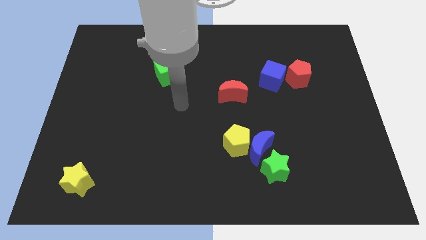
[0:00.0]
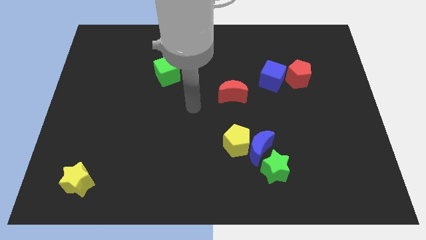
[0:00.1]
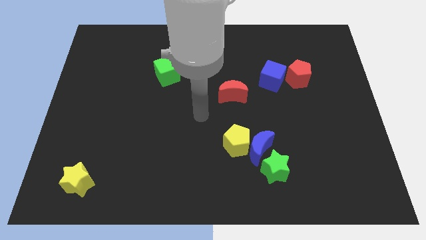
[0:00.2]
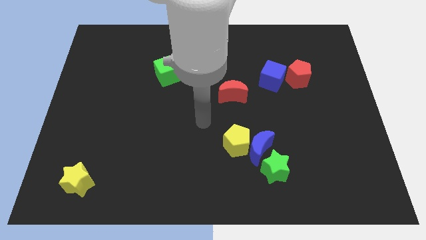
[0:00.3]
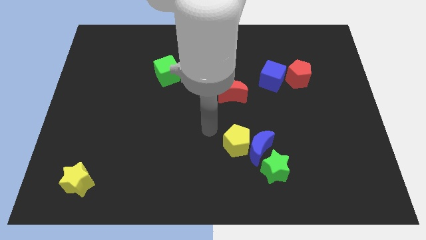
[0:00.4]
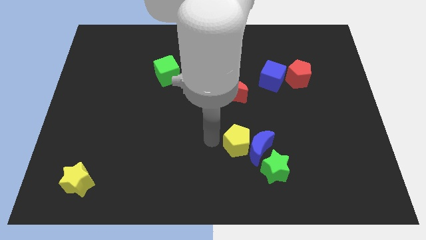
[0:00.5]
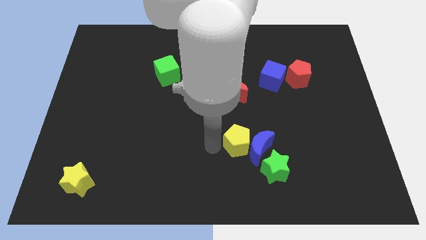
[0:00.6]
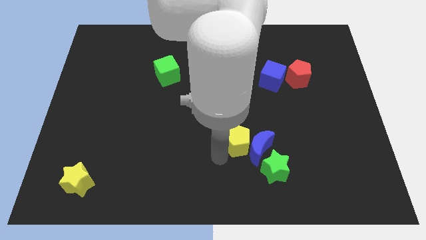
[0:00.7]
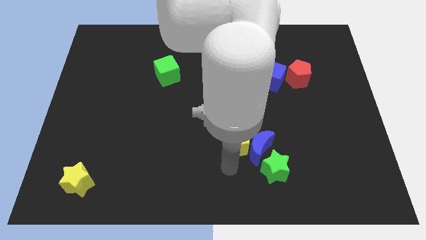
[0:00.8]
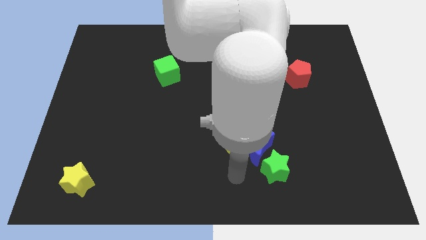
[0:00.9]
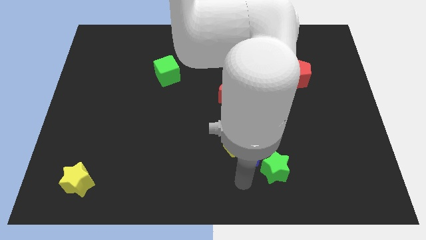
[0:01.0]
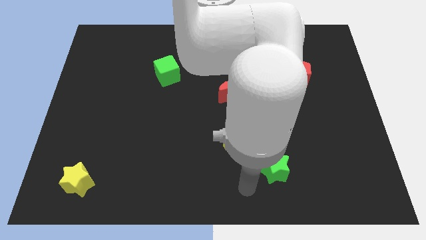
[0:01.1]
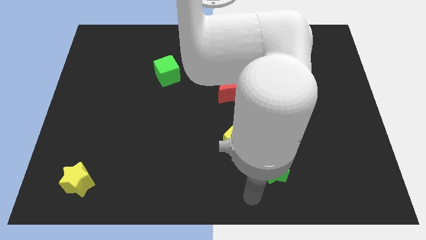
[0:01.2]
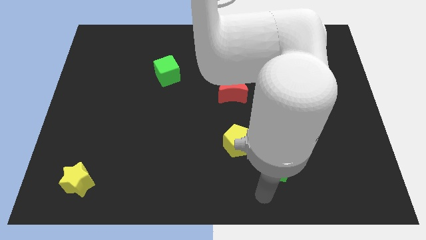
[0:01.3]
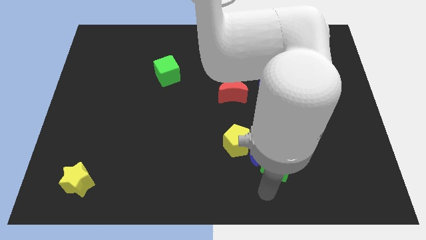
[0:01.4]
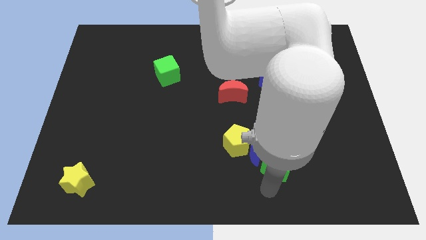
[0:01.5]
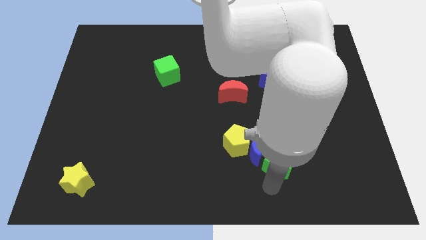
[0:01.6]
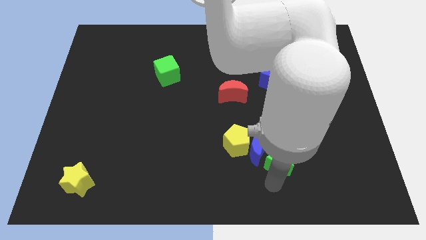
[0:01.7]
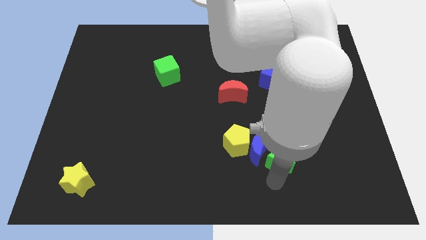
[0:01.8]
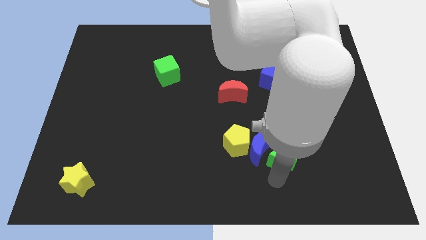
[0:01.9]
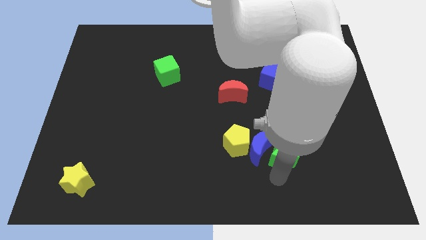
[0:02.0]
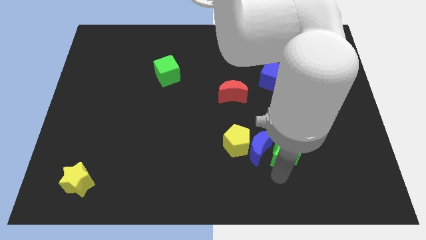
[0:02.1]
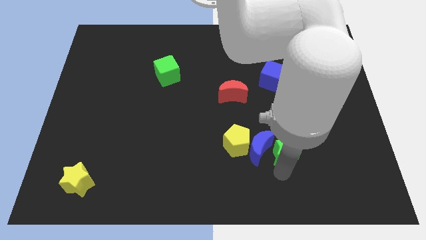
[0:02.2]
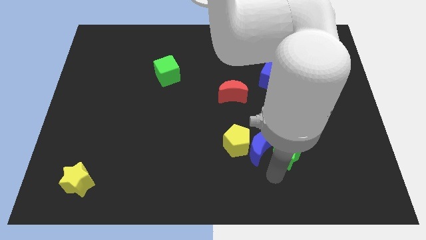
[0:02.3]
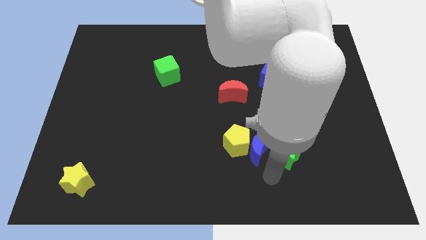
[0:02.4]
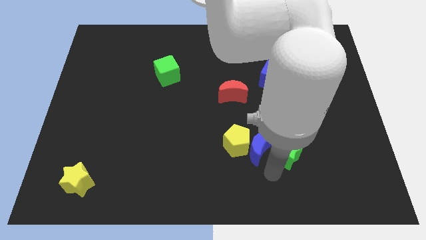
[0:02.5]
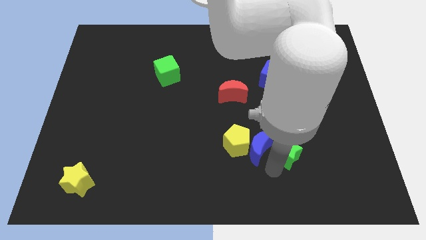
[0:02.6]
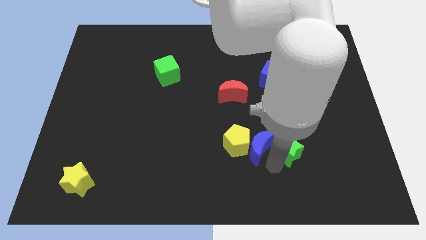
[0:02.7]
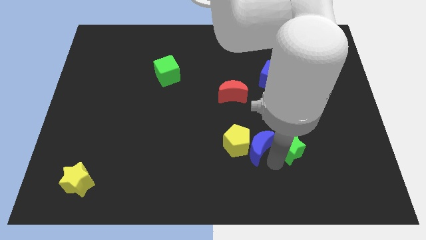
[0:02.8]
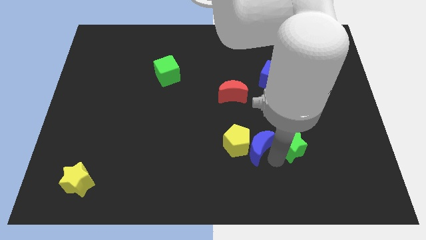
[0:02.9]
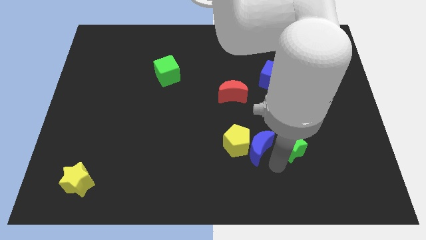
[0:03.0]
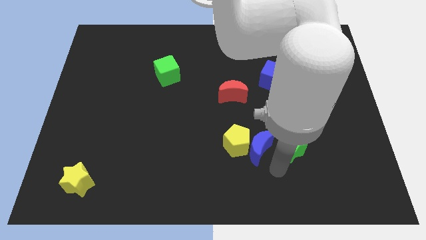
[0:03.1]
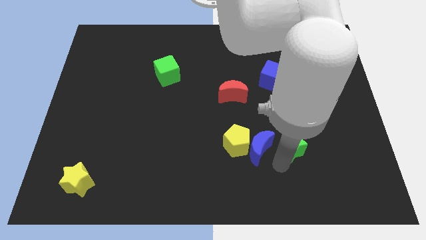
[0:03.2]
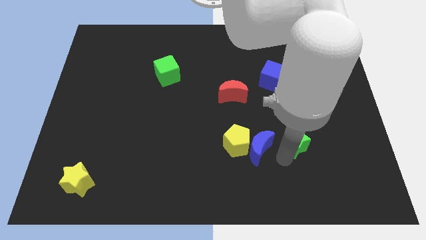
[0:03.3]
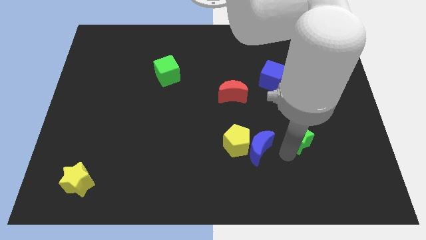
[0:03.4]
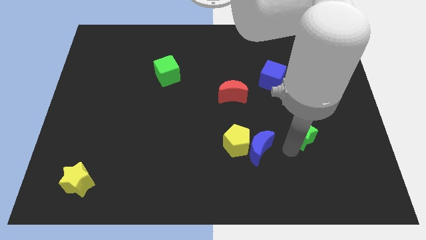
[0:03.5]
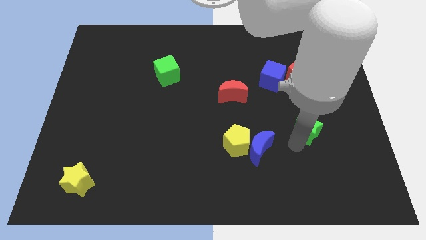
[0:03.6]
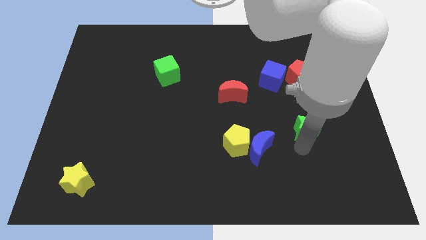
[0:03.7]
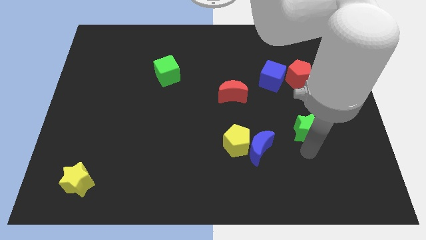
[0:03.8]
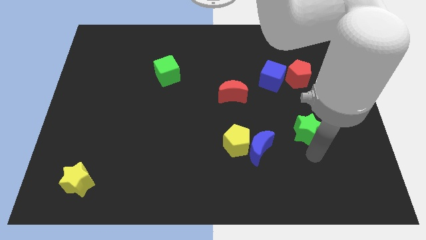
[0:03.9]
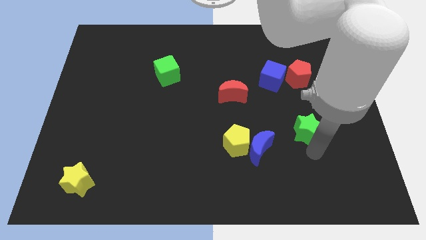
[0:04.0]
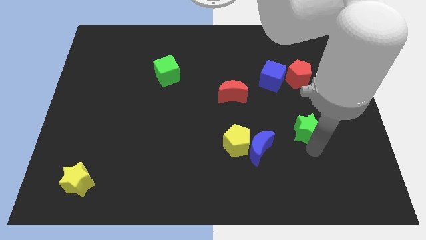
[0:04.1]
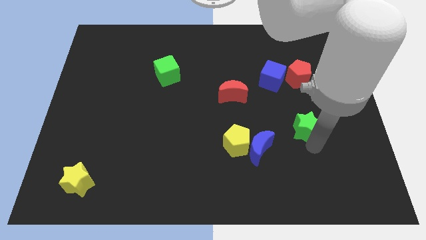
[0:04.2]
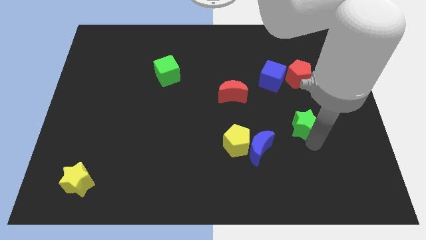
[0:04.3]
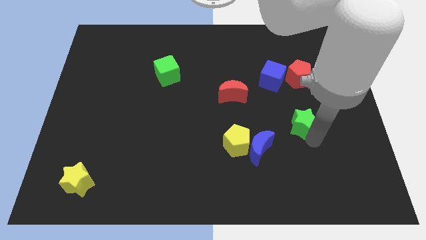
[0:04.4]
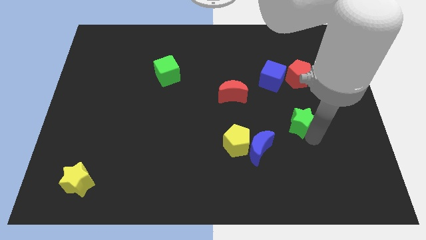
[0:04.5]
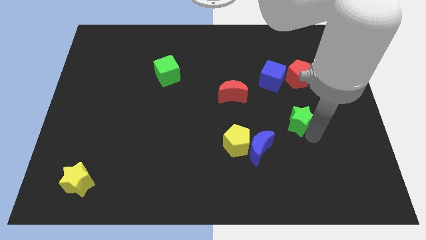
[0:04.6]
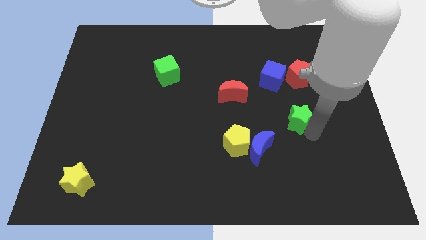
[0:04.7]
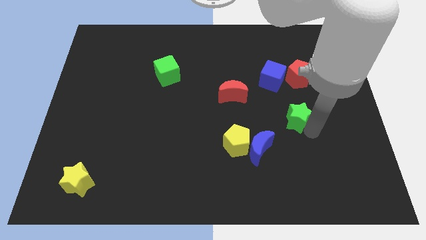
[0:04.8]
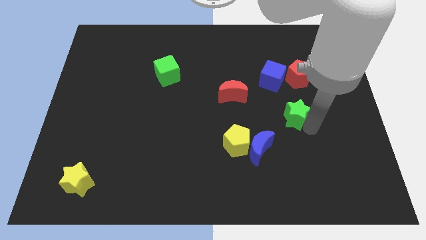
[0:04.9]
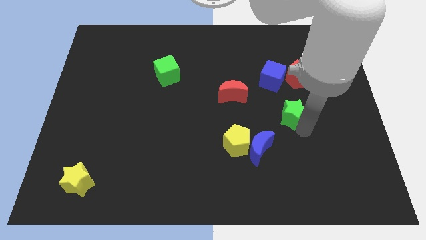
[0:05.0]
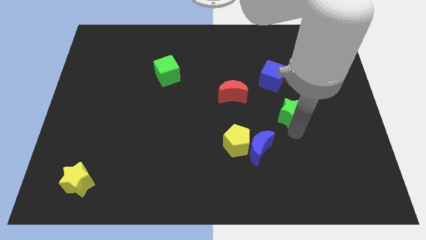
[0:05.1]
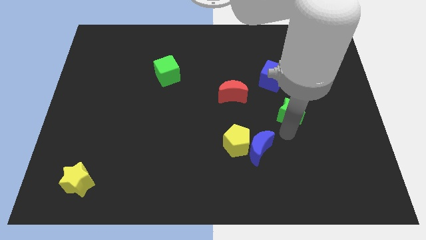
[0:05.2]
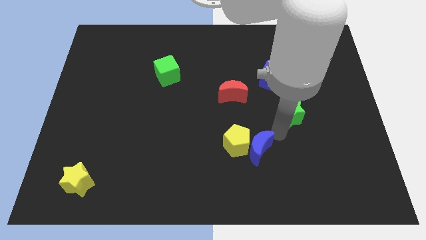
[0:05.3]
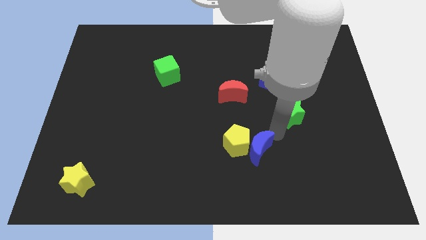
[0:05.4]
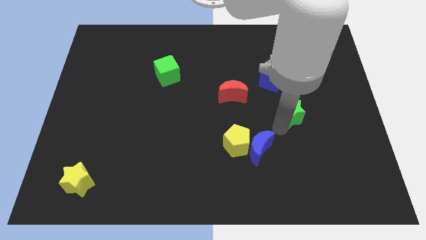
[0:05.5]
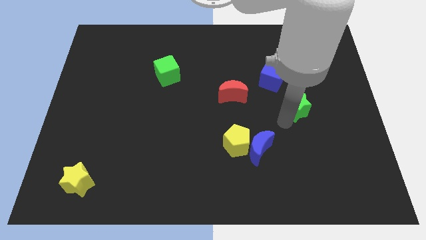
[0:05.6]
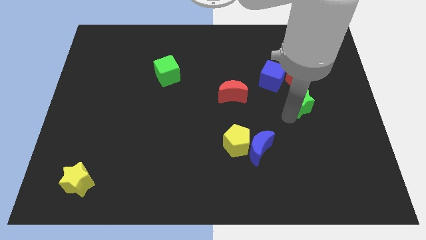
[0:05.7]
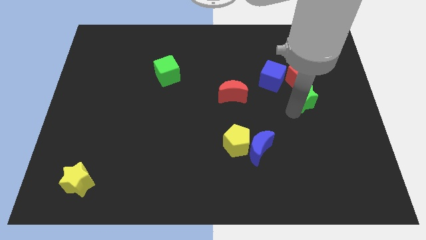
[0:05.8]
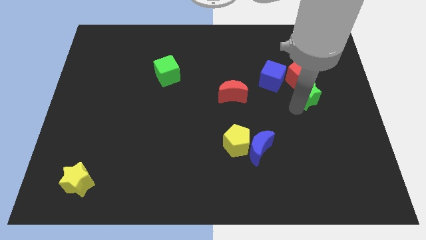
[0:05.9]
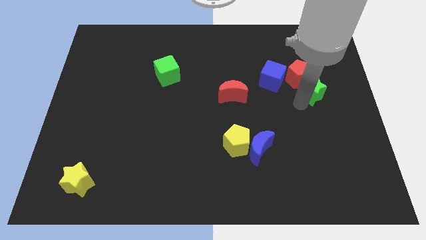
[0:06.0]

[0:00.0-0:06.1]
slide the green star to the right of the blue cube

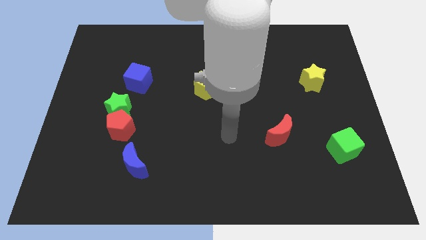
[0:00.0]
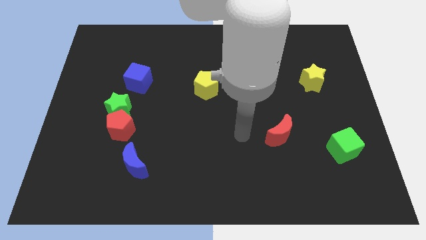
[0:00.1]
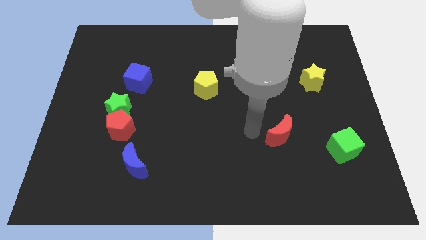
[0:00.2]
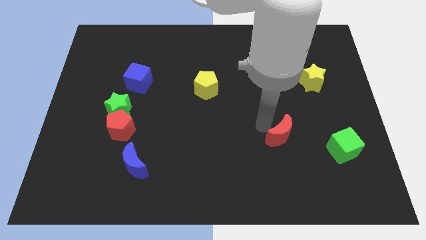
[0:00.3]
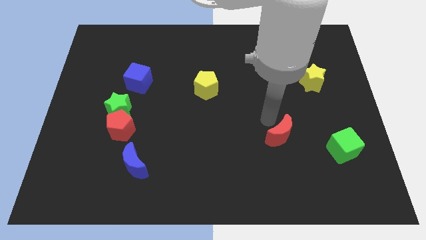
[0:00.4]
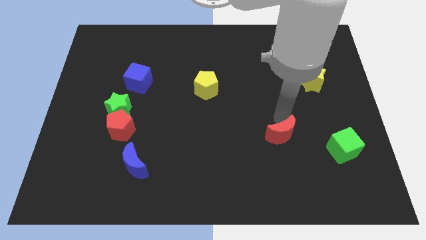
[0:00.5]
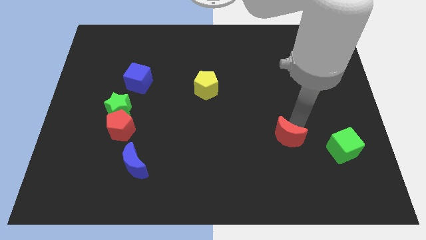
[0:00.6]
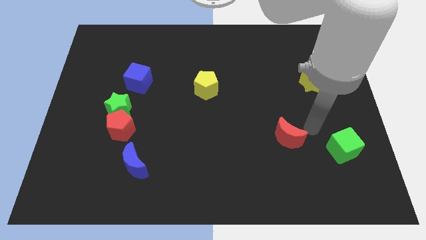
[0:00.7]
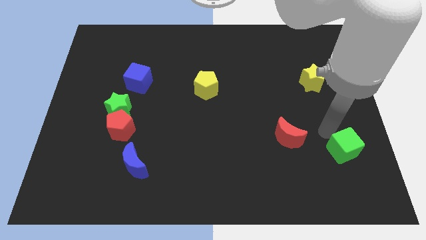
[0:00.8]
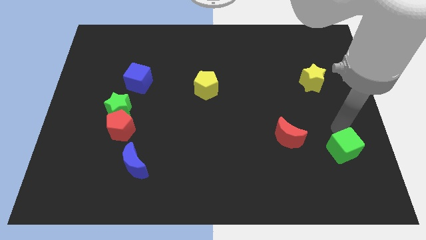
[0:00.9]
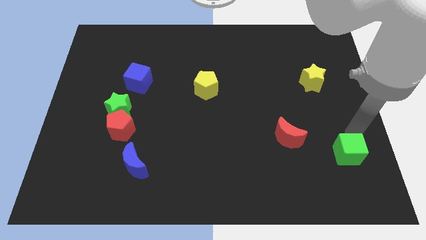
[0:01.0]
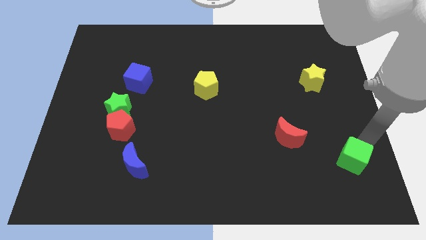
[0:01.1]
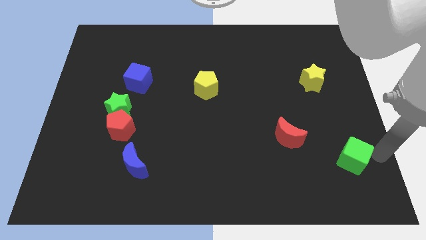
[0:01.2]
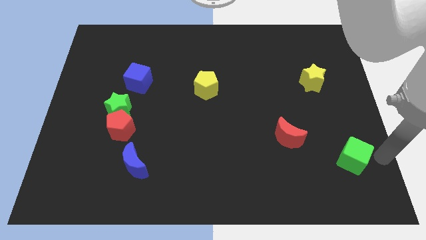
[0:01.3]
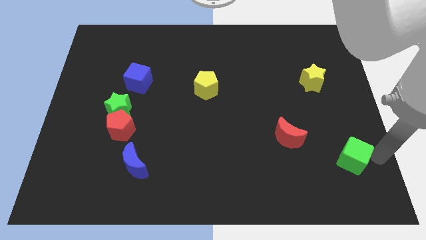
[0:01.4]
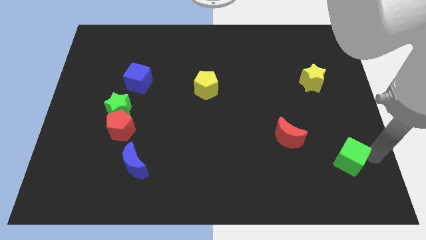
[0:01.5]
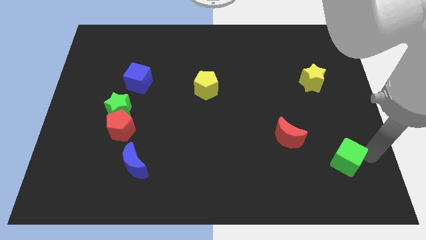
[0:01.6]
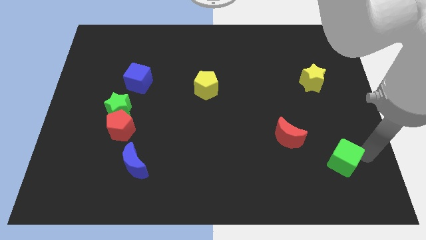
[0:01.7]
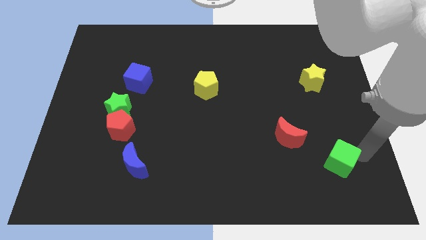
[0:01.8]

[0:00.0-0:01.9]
push the green cube to the bottom right of the red moon
